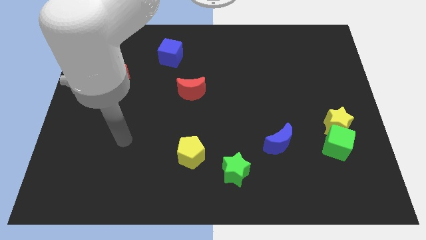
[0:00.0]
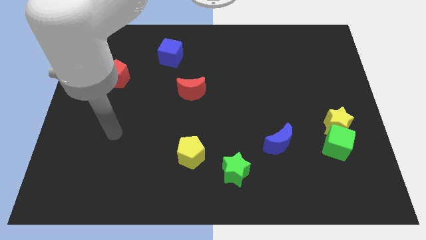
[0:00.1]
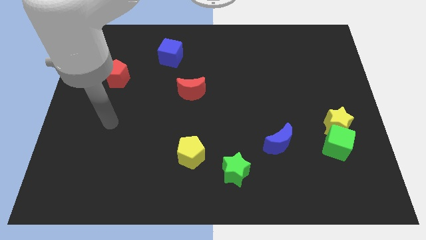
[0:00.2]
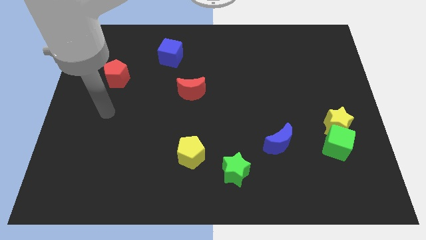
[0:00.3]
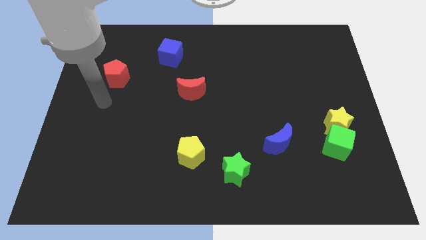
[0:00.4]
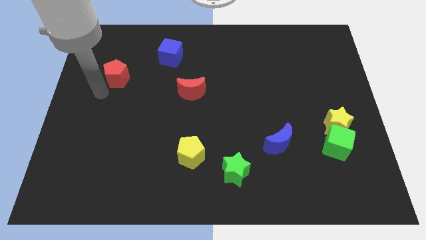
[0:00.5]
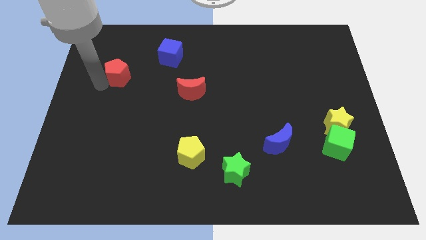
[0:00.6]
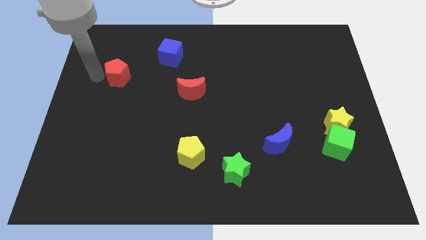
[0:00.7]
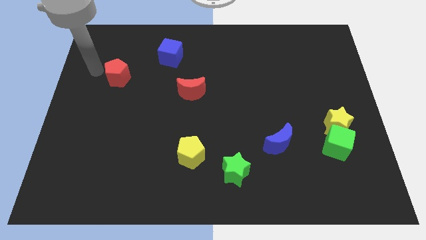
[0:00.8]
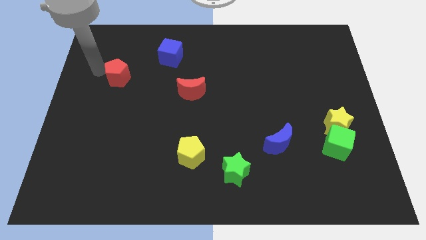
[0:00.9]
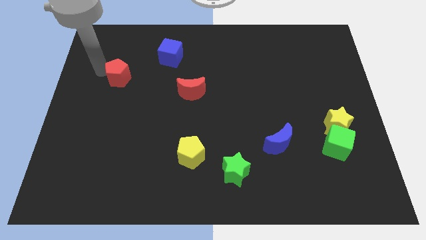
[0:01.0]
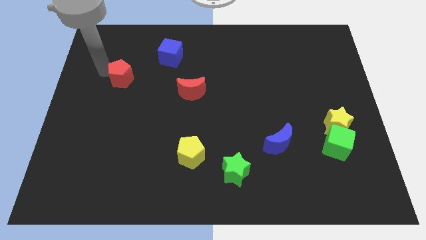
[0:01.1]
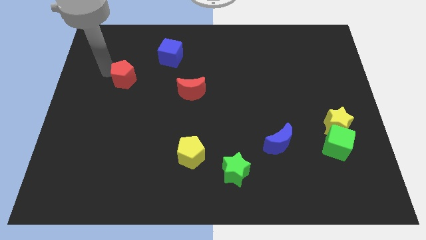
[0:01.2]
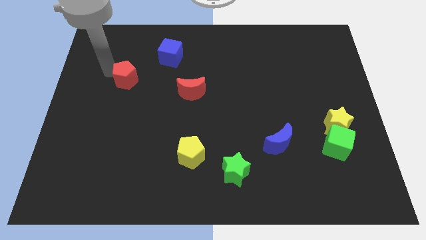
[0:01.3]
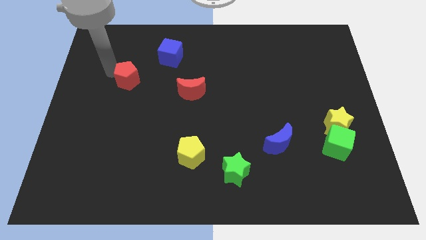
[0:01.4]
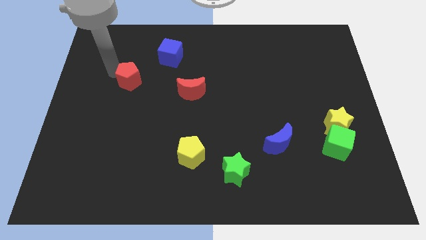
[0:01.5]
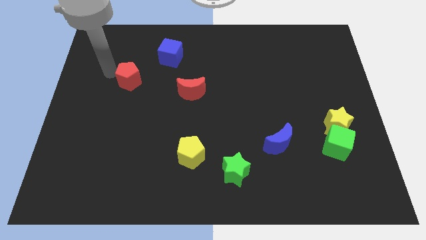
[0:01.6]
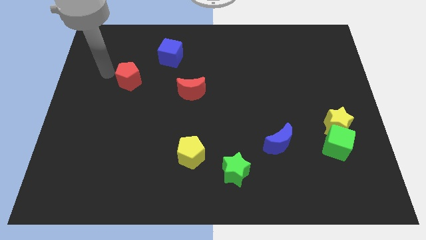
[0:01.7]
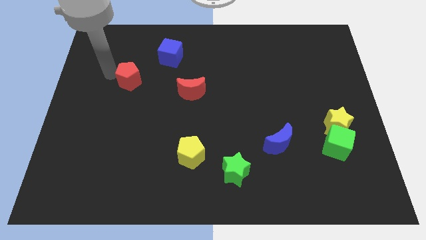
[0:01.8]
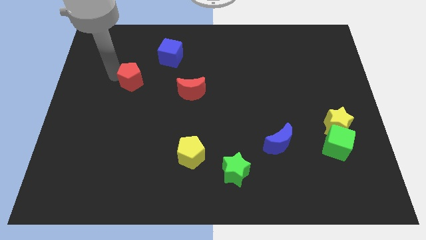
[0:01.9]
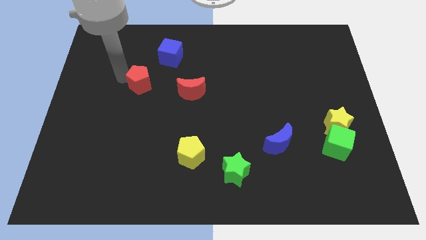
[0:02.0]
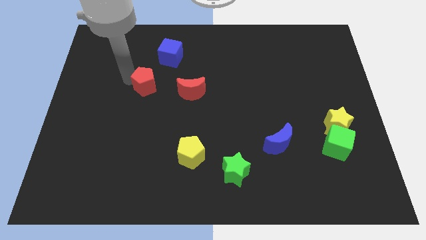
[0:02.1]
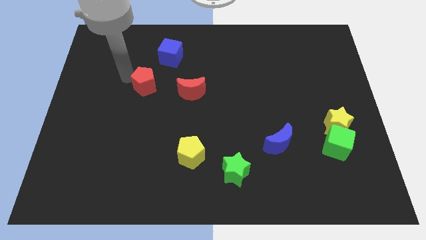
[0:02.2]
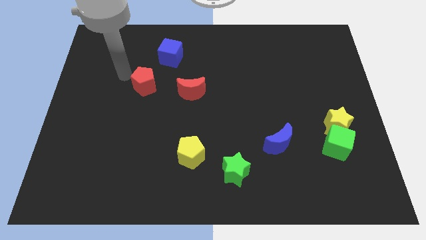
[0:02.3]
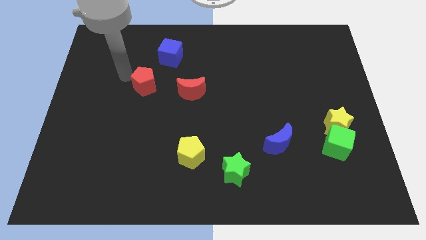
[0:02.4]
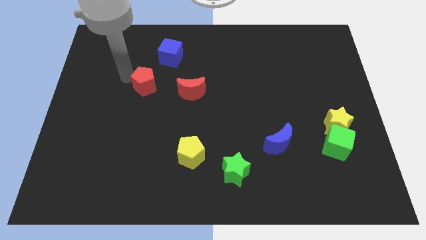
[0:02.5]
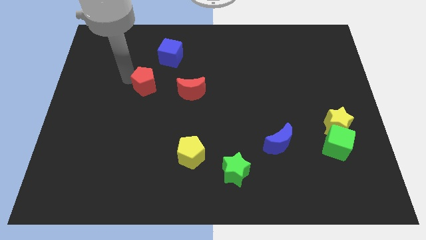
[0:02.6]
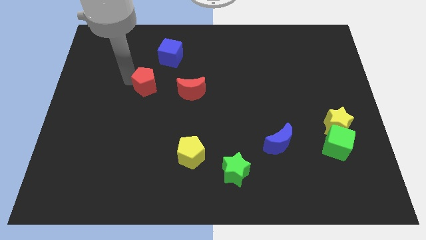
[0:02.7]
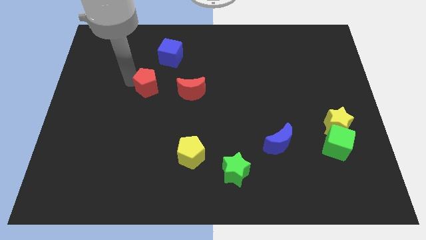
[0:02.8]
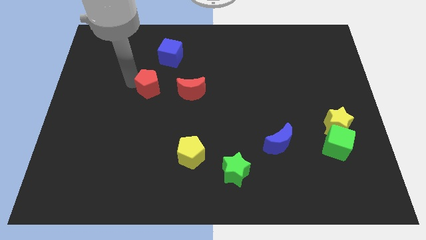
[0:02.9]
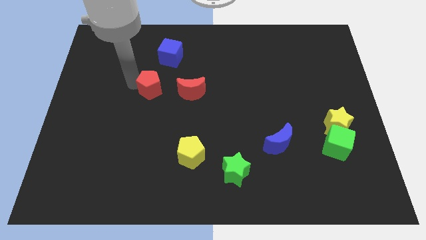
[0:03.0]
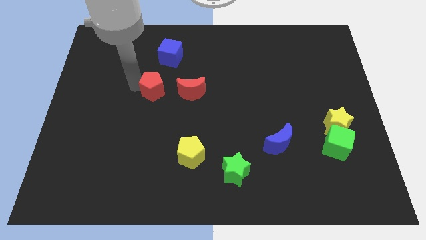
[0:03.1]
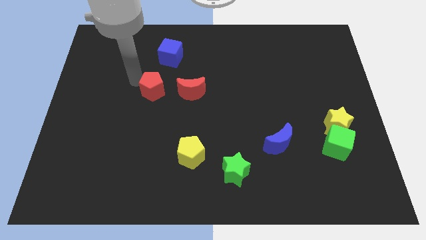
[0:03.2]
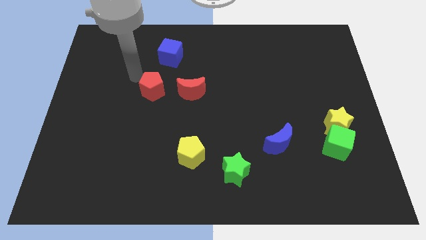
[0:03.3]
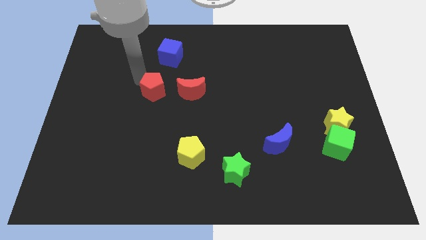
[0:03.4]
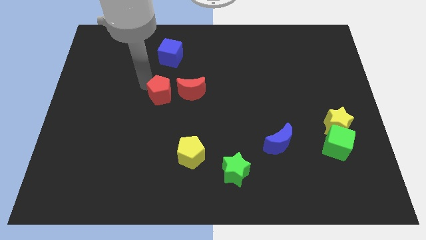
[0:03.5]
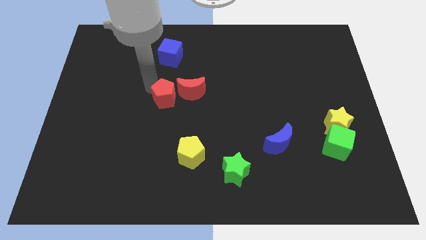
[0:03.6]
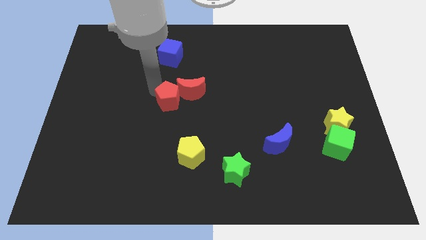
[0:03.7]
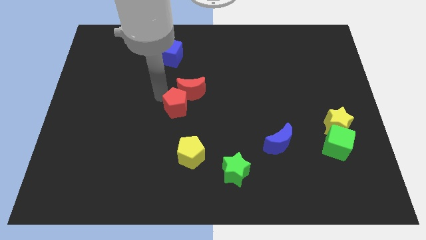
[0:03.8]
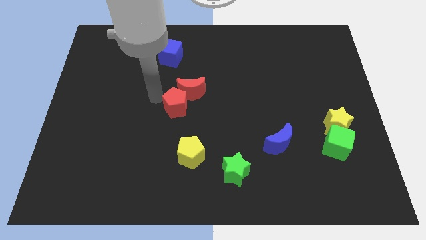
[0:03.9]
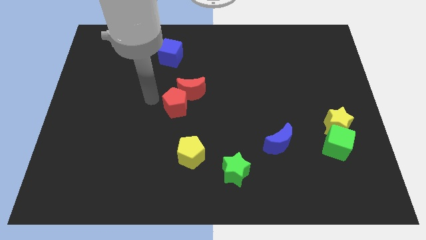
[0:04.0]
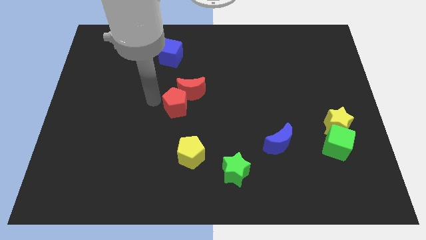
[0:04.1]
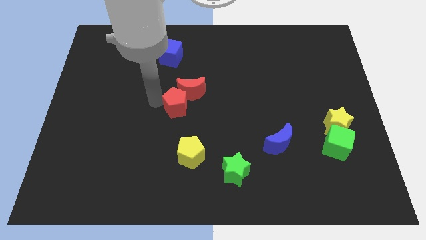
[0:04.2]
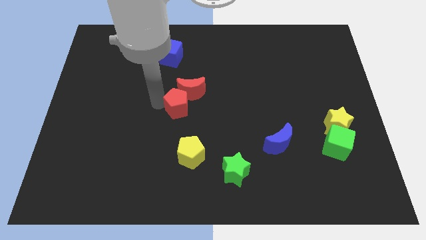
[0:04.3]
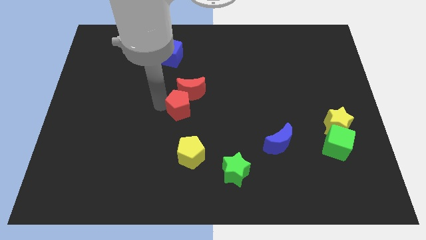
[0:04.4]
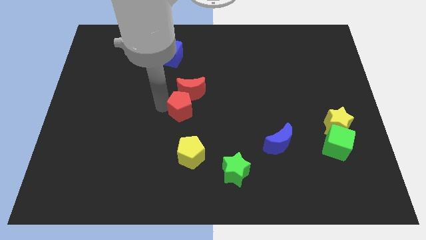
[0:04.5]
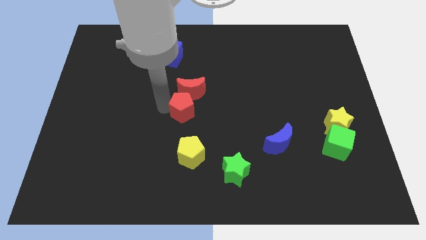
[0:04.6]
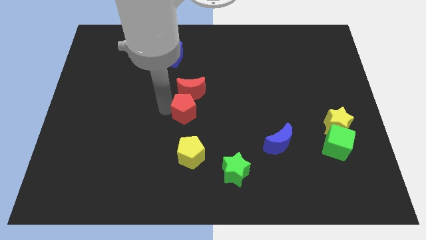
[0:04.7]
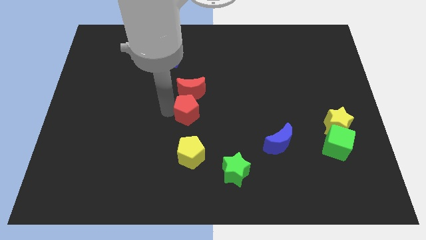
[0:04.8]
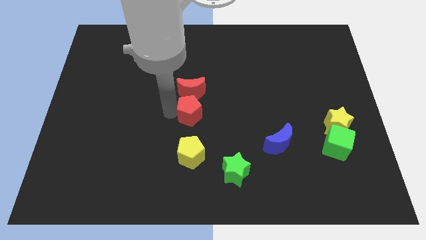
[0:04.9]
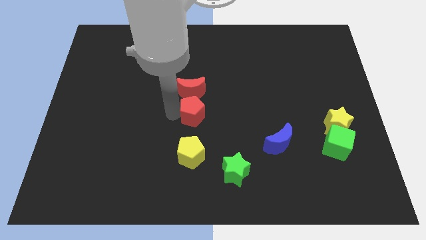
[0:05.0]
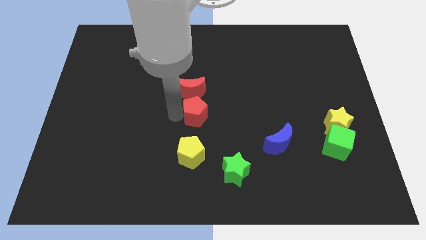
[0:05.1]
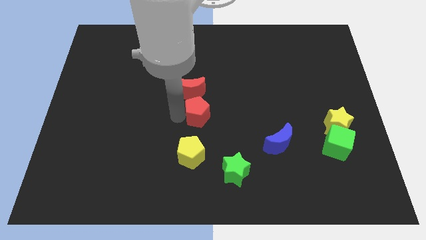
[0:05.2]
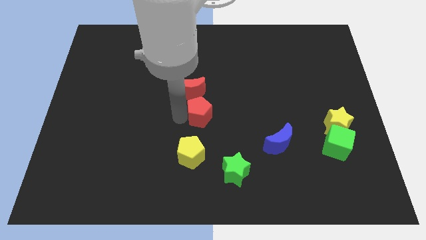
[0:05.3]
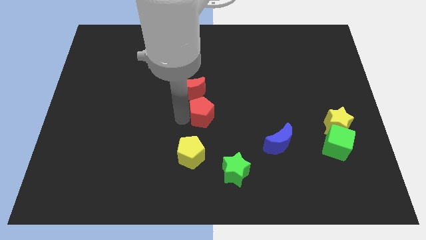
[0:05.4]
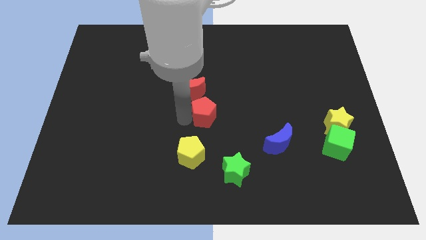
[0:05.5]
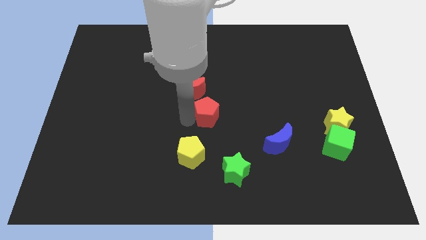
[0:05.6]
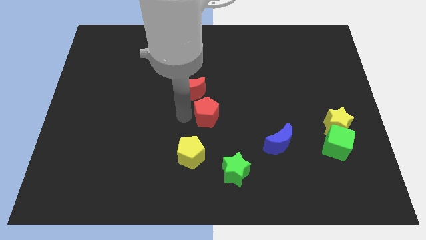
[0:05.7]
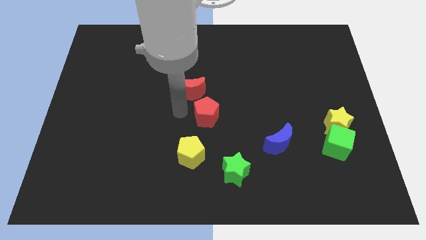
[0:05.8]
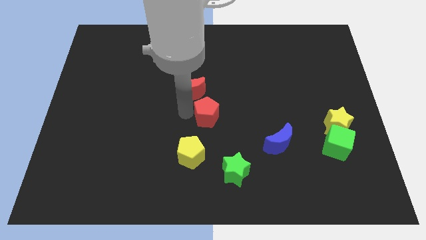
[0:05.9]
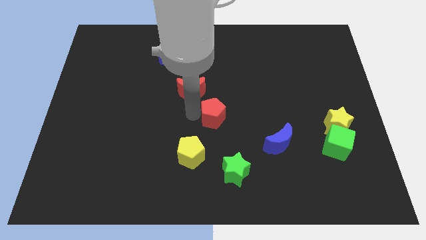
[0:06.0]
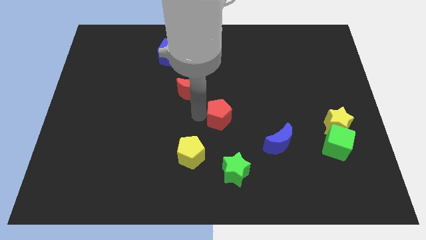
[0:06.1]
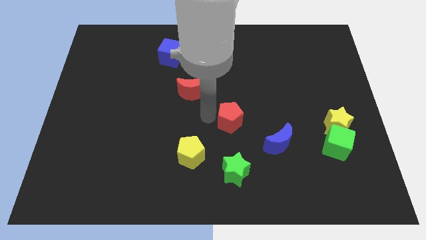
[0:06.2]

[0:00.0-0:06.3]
put the red pentagon diagonally up and to the left of the blue moon

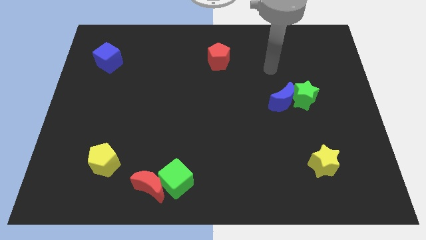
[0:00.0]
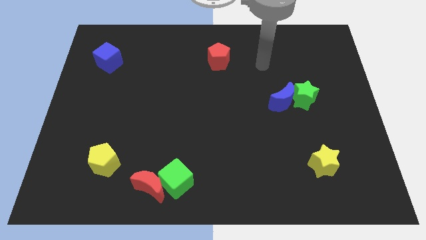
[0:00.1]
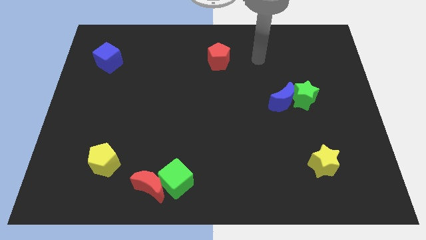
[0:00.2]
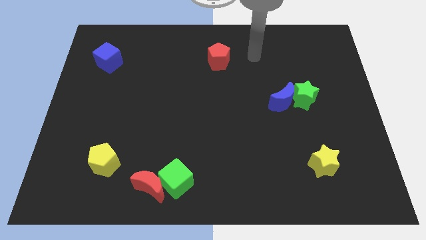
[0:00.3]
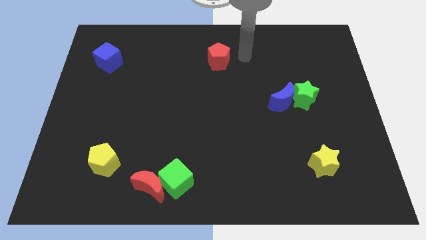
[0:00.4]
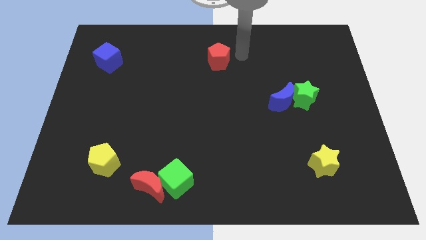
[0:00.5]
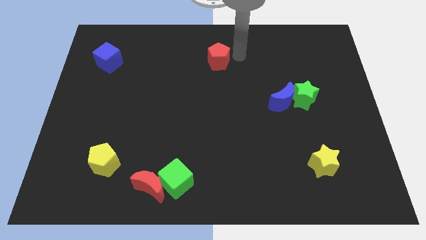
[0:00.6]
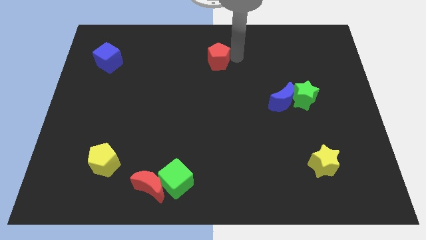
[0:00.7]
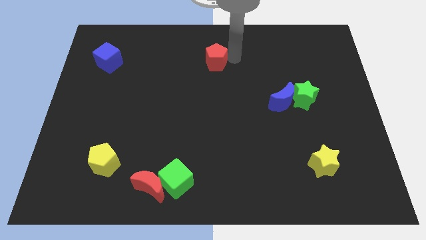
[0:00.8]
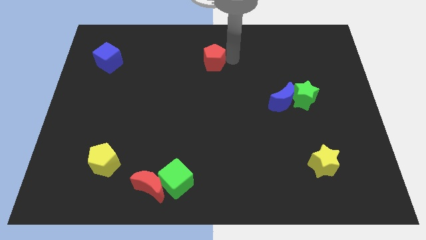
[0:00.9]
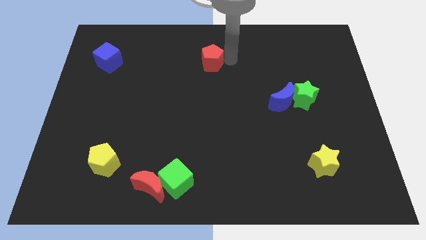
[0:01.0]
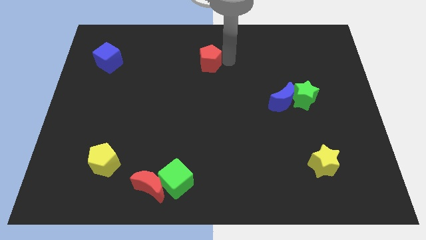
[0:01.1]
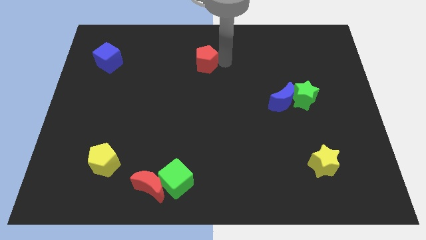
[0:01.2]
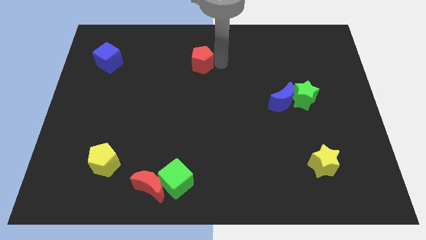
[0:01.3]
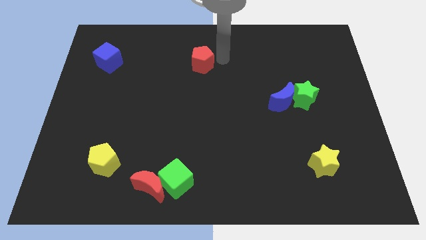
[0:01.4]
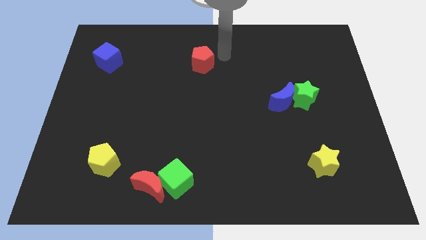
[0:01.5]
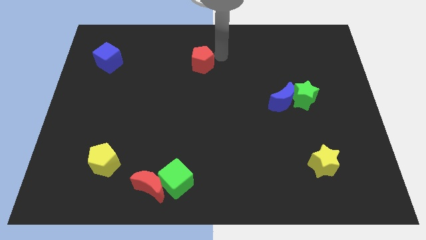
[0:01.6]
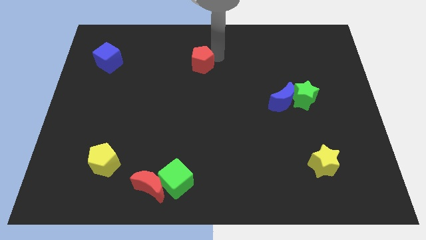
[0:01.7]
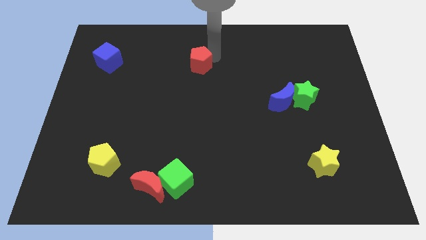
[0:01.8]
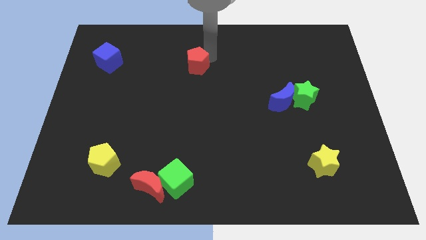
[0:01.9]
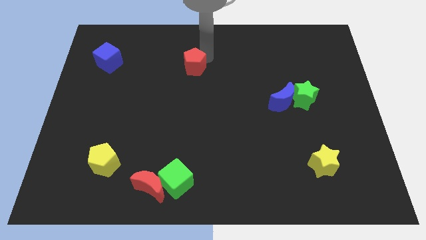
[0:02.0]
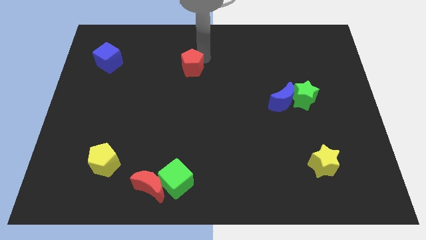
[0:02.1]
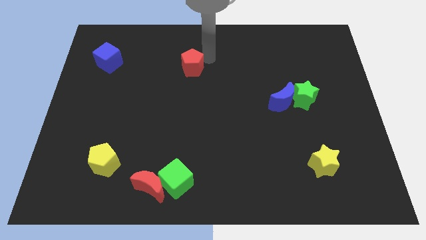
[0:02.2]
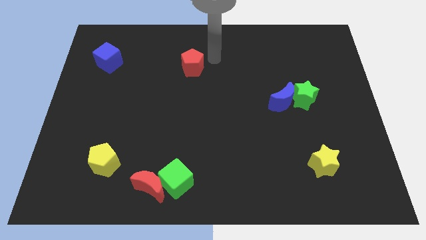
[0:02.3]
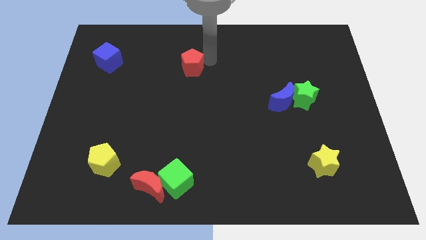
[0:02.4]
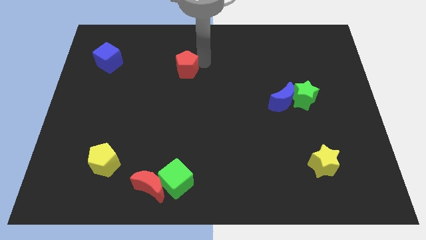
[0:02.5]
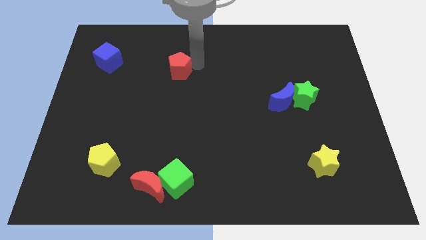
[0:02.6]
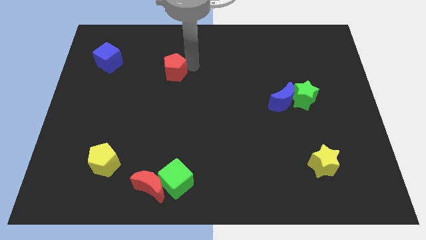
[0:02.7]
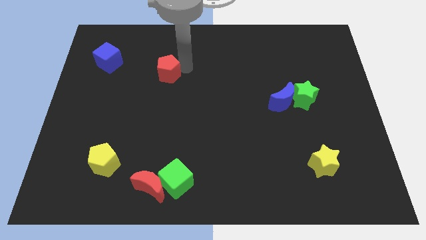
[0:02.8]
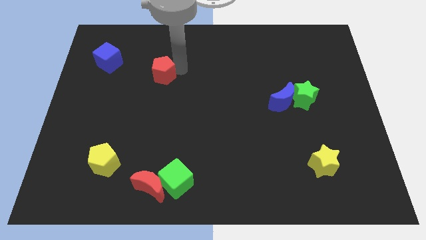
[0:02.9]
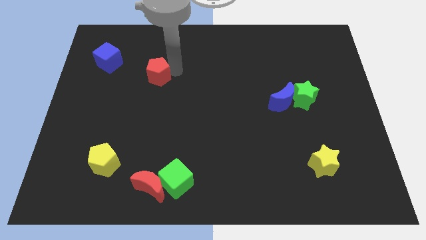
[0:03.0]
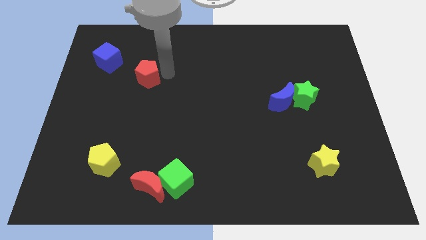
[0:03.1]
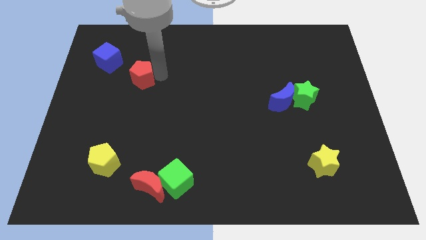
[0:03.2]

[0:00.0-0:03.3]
move the red pentagon to the bottom right of the blue cube
